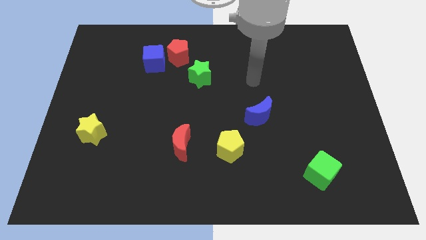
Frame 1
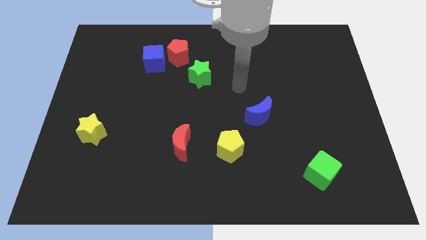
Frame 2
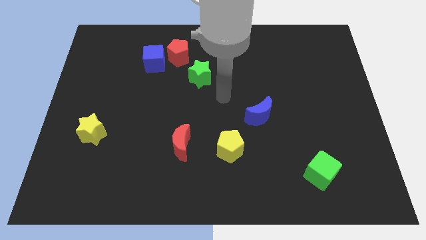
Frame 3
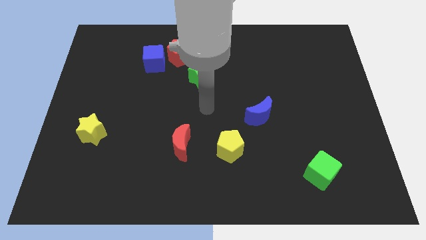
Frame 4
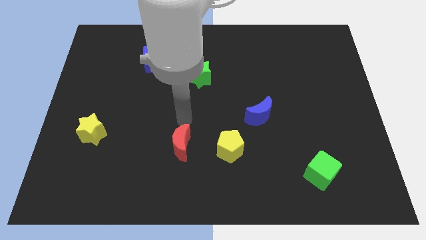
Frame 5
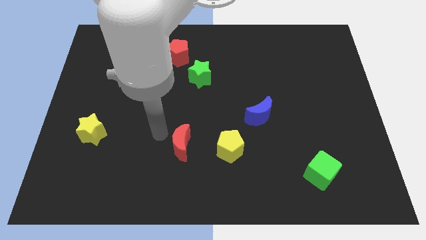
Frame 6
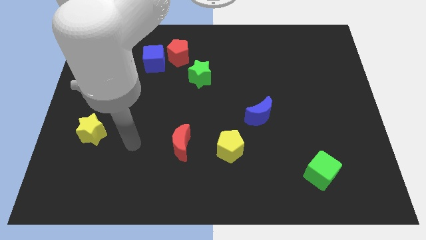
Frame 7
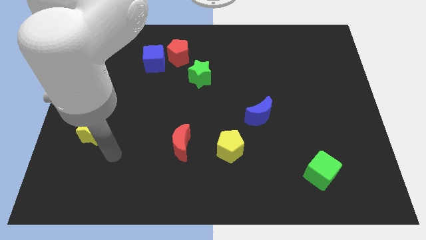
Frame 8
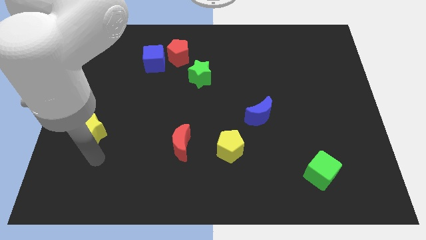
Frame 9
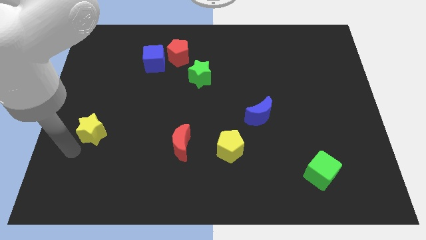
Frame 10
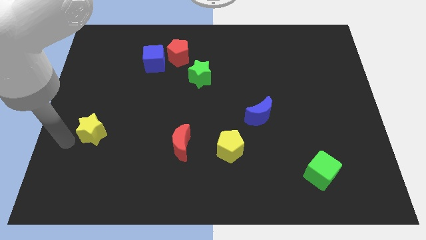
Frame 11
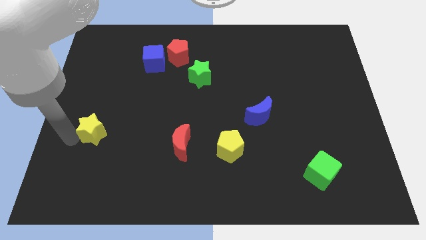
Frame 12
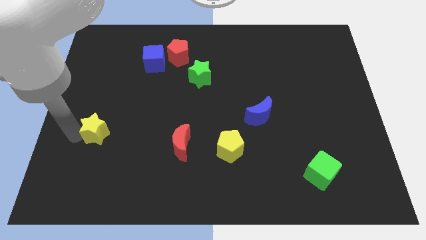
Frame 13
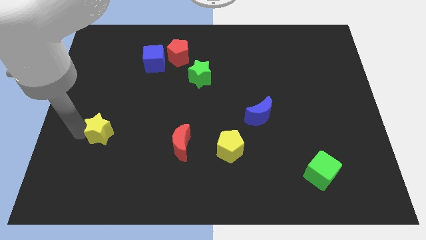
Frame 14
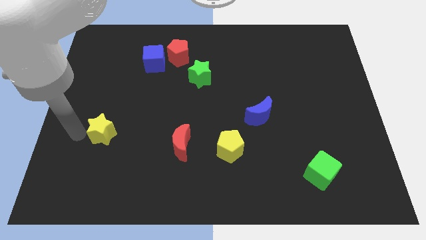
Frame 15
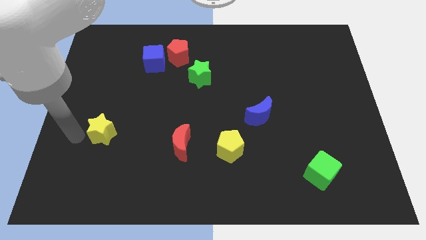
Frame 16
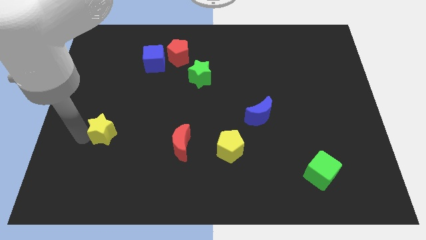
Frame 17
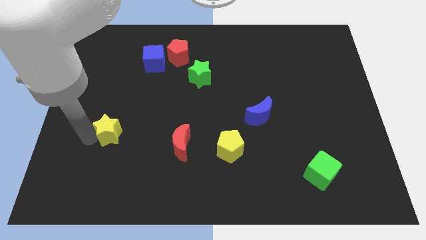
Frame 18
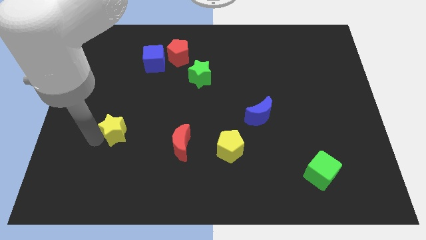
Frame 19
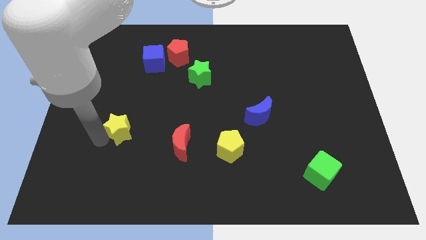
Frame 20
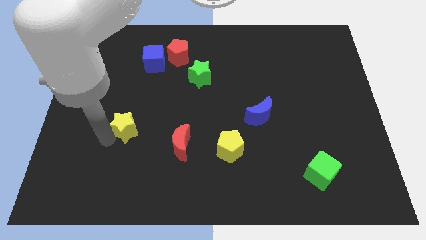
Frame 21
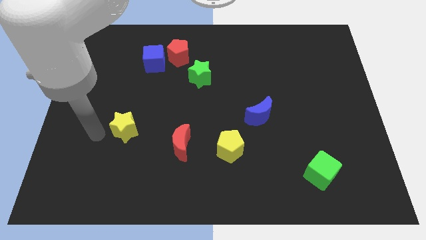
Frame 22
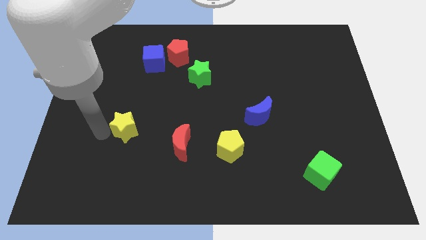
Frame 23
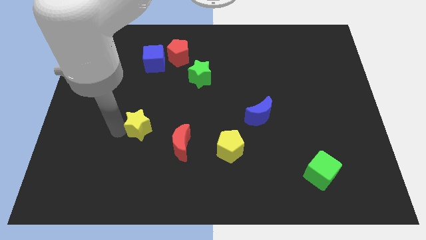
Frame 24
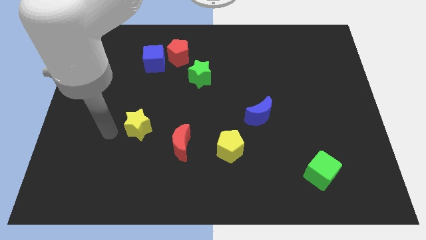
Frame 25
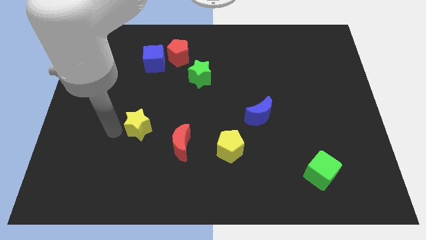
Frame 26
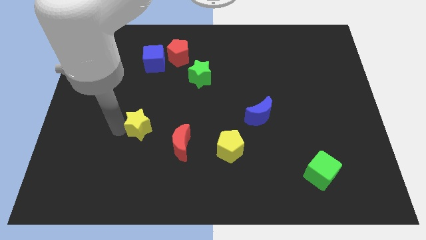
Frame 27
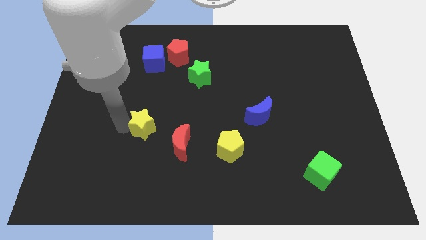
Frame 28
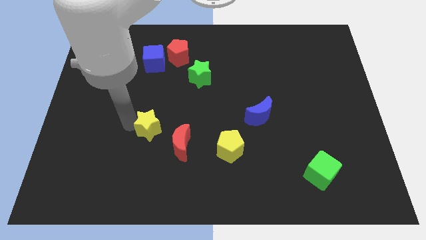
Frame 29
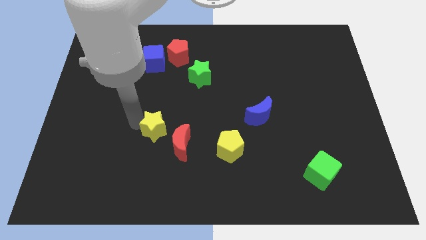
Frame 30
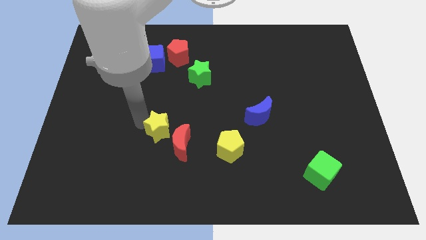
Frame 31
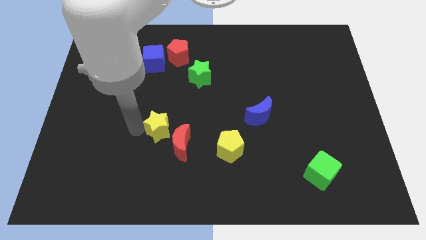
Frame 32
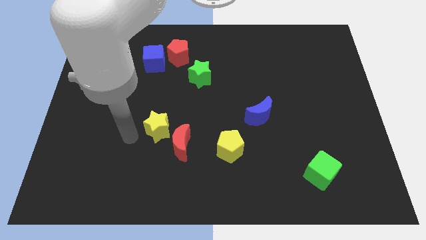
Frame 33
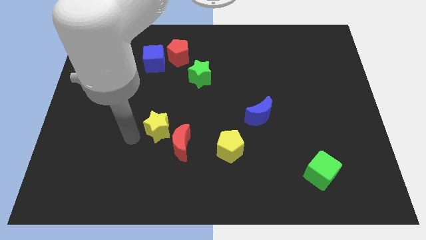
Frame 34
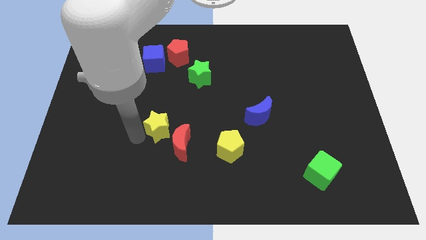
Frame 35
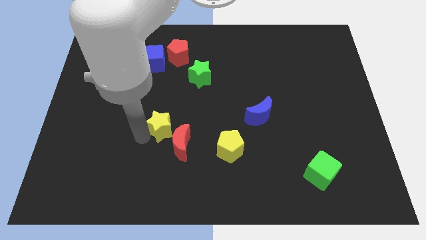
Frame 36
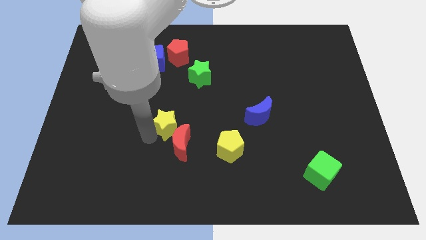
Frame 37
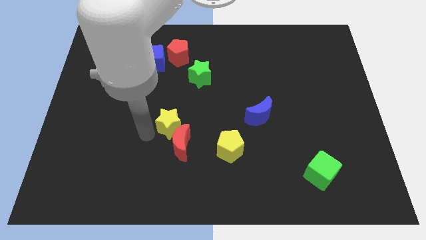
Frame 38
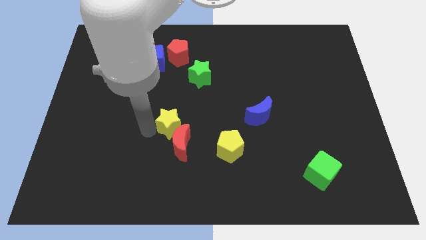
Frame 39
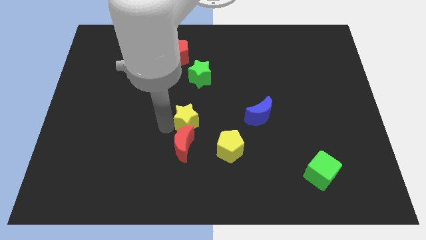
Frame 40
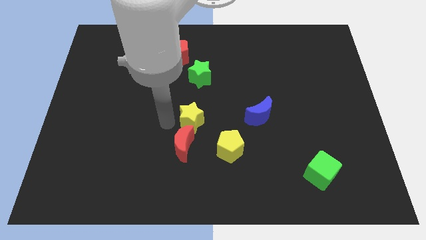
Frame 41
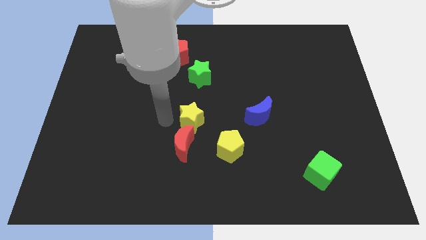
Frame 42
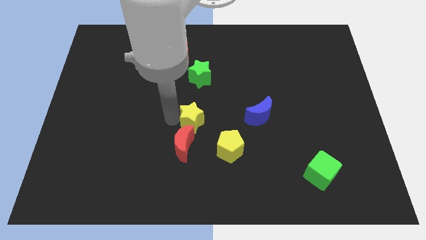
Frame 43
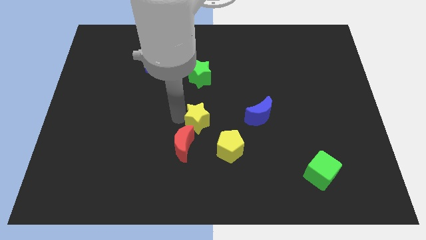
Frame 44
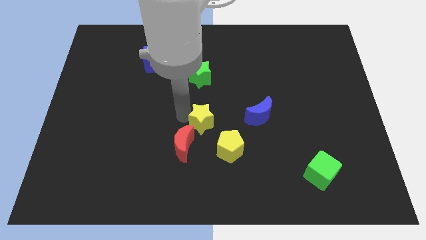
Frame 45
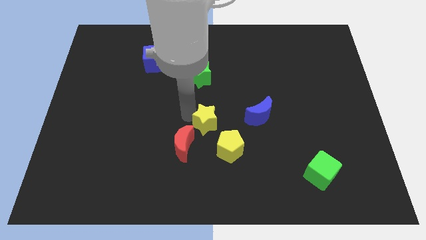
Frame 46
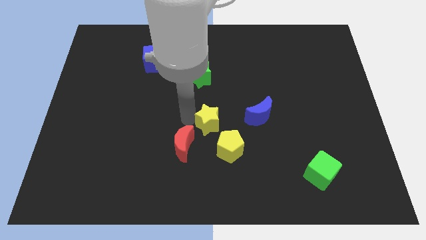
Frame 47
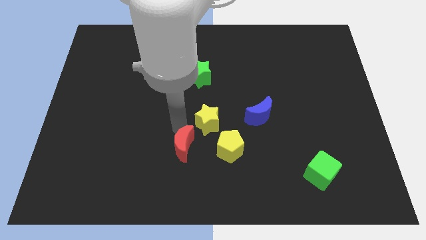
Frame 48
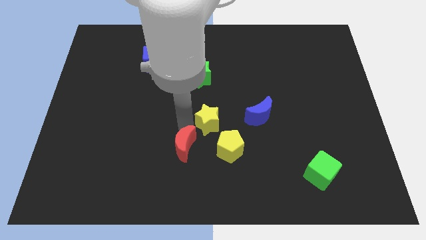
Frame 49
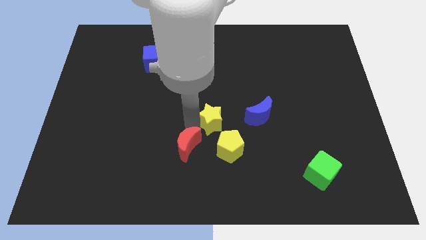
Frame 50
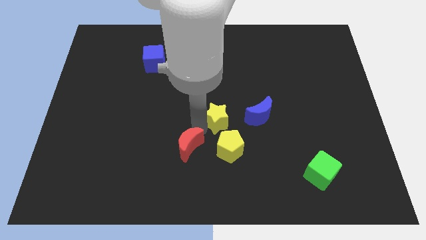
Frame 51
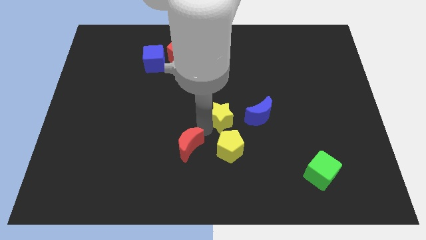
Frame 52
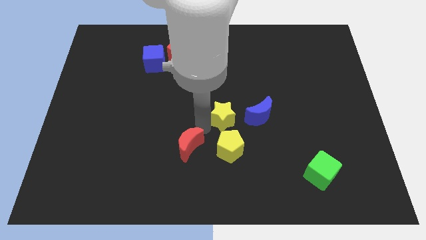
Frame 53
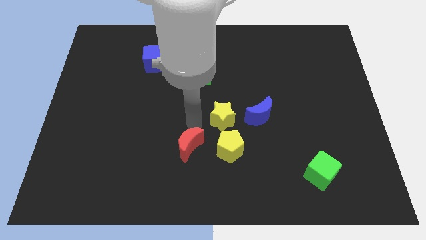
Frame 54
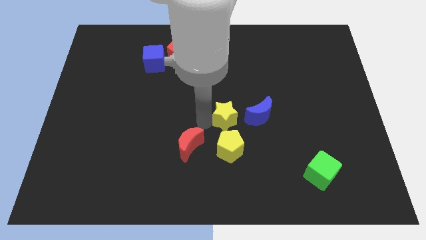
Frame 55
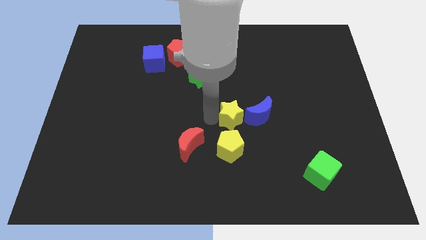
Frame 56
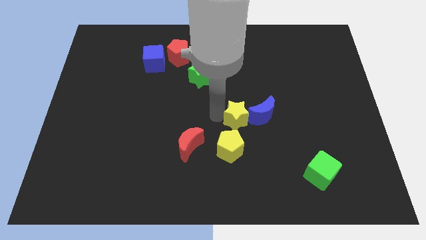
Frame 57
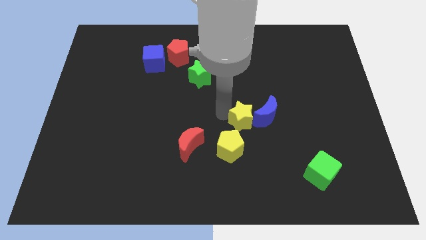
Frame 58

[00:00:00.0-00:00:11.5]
put the yellow star towards the blue moon

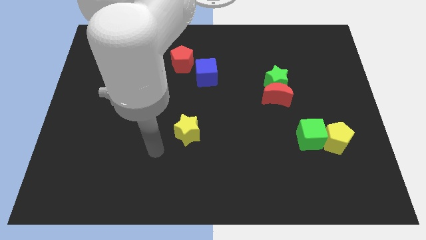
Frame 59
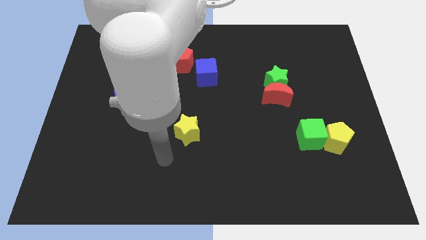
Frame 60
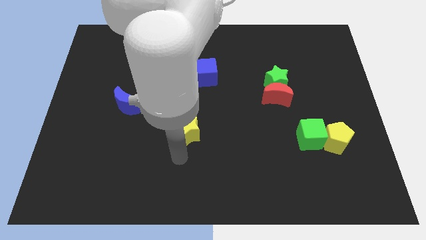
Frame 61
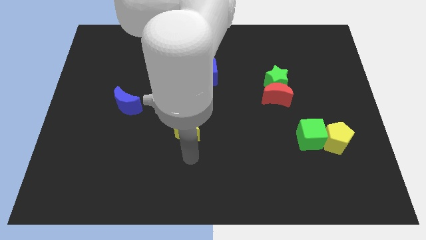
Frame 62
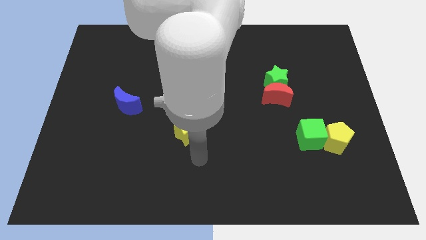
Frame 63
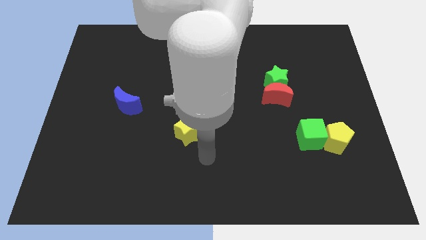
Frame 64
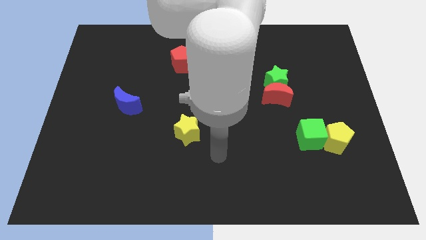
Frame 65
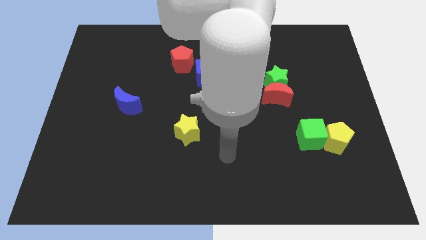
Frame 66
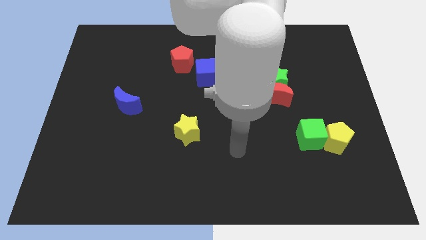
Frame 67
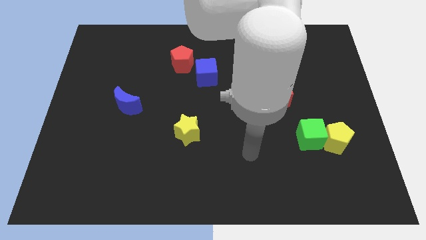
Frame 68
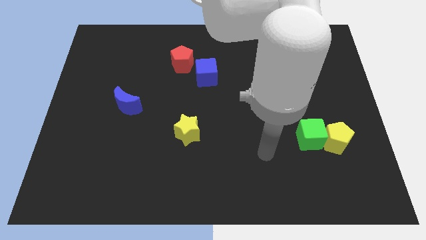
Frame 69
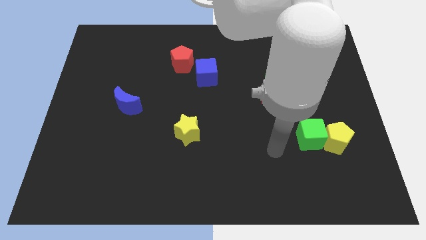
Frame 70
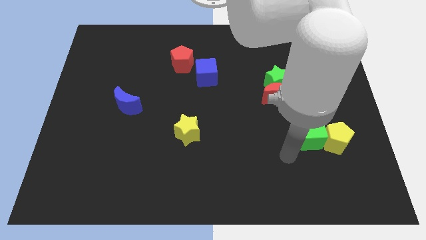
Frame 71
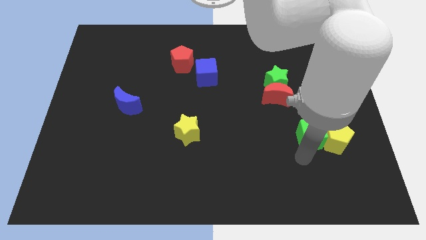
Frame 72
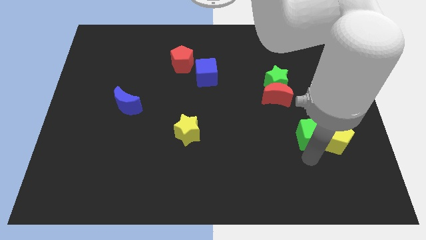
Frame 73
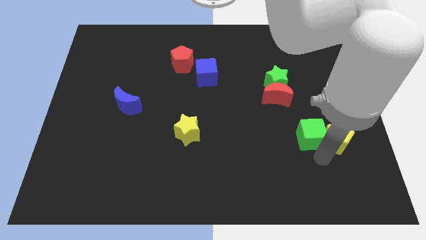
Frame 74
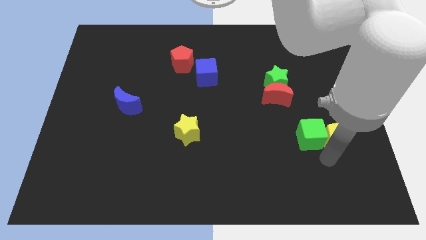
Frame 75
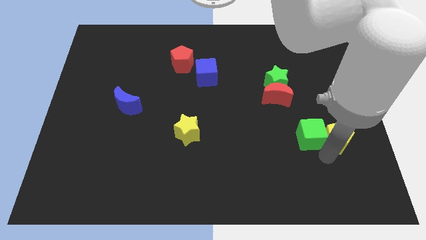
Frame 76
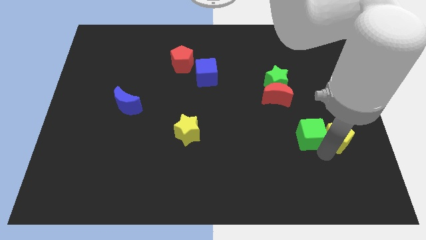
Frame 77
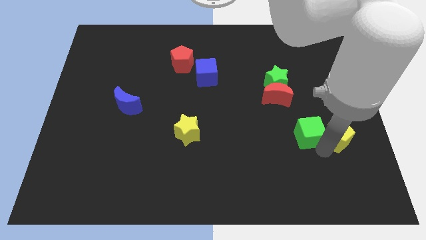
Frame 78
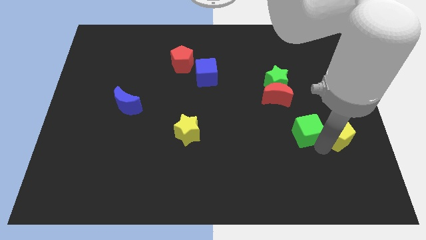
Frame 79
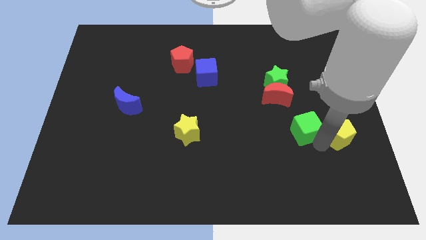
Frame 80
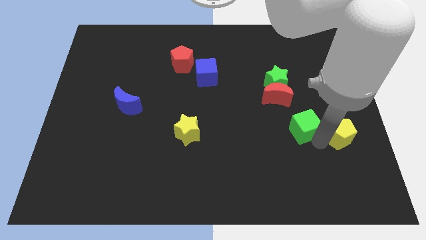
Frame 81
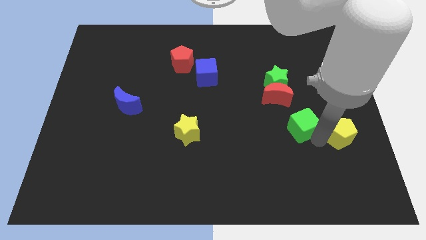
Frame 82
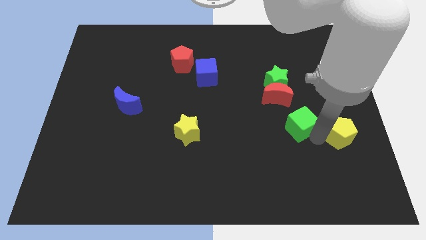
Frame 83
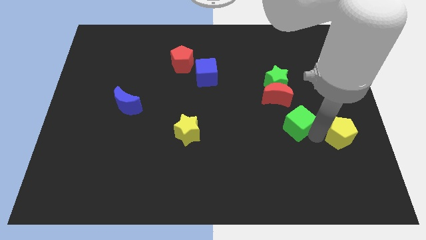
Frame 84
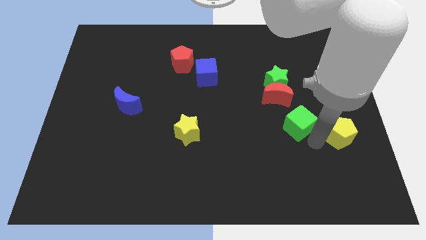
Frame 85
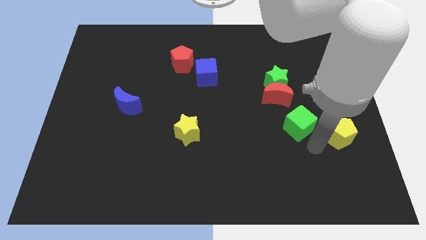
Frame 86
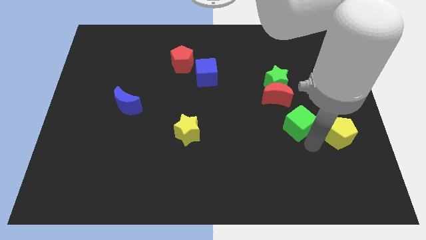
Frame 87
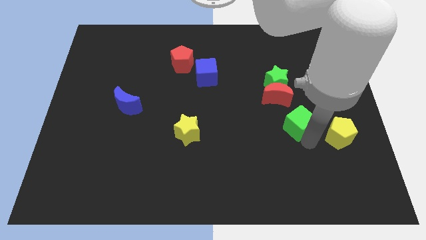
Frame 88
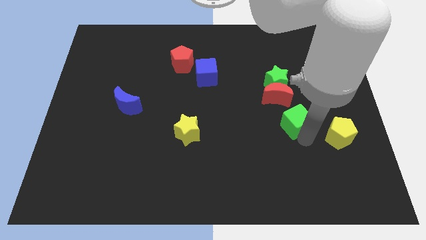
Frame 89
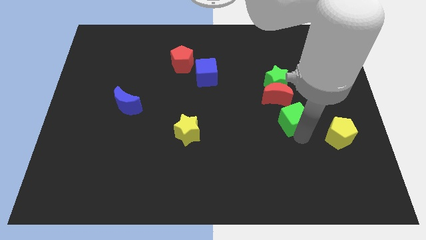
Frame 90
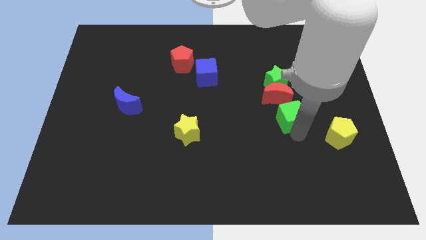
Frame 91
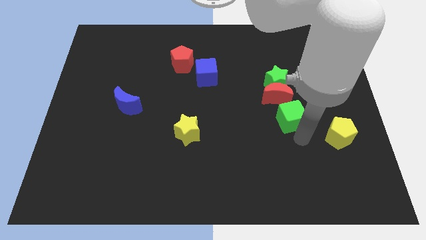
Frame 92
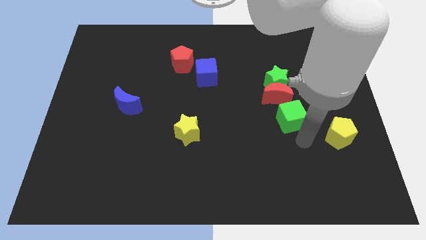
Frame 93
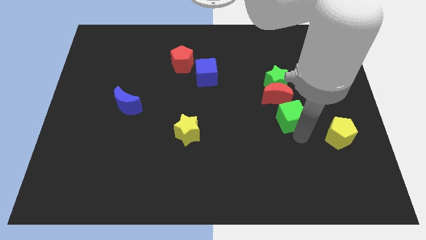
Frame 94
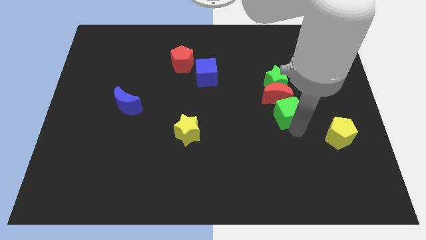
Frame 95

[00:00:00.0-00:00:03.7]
slide the green cube to the red moon
